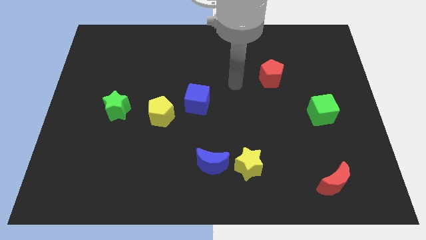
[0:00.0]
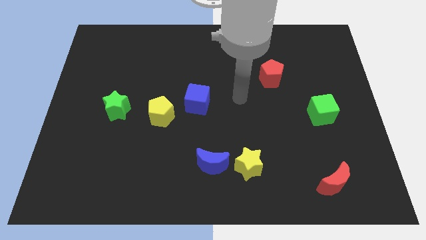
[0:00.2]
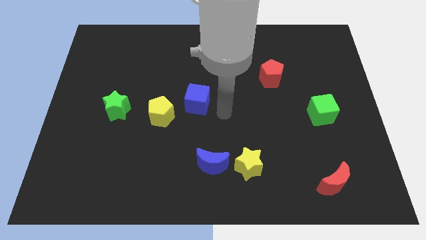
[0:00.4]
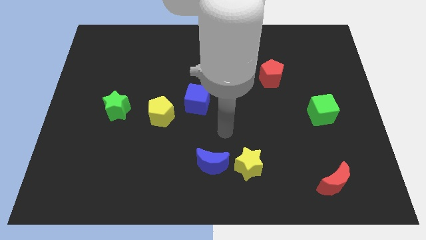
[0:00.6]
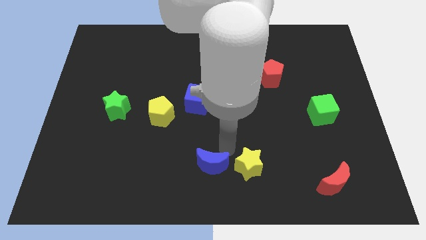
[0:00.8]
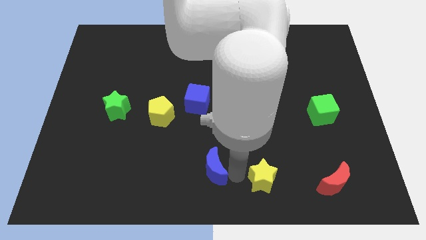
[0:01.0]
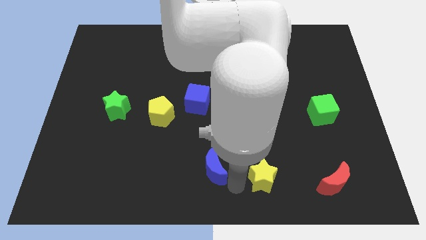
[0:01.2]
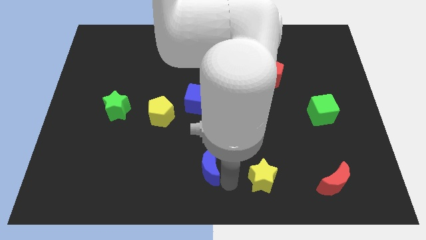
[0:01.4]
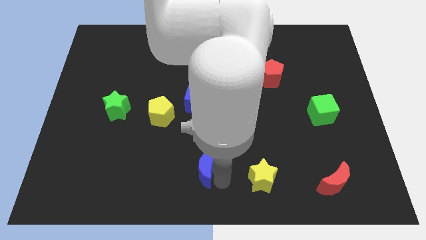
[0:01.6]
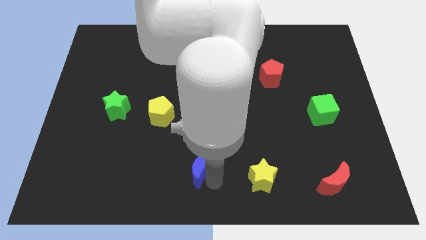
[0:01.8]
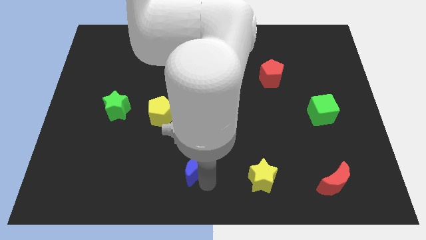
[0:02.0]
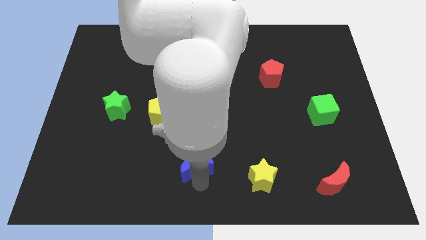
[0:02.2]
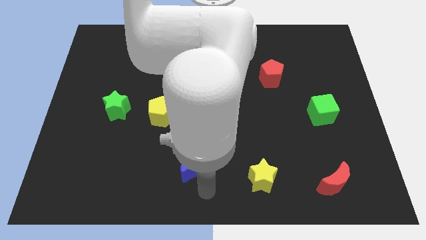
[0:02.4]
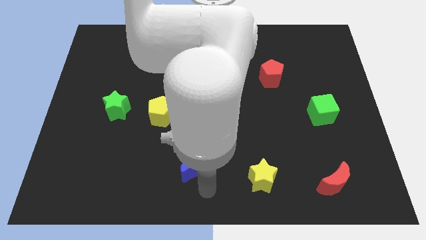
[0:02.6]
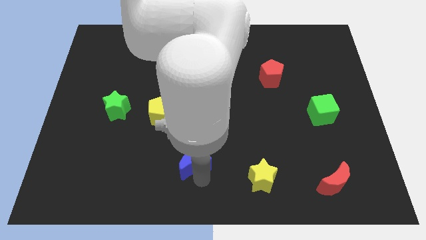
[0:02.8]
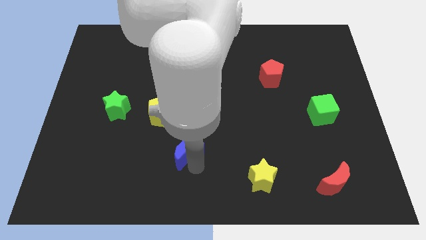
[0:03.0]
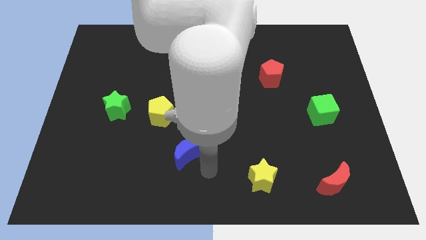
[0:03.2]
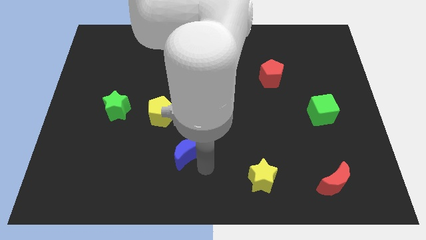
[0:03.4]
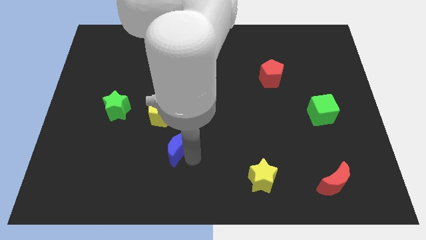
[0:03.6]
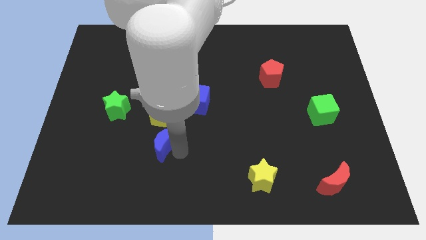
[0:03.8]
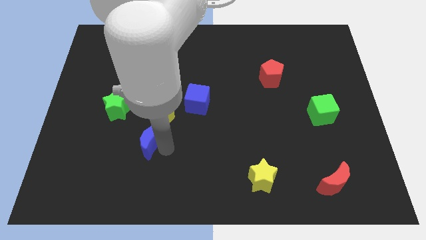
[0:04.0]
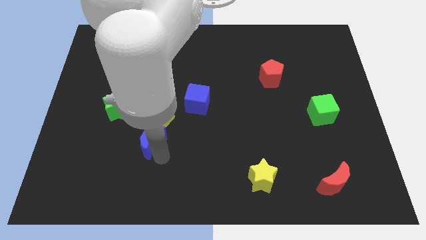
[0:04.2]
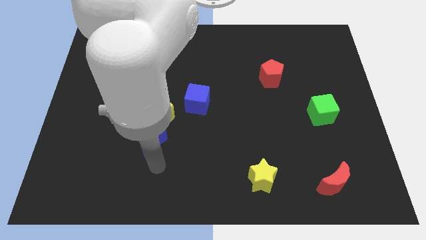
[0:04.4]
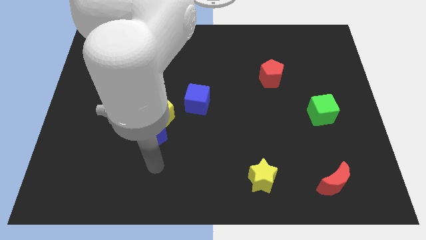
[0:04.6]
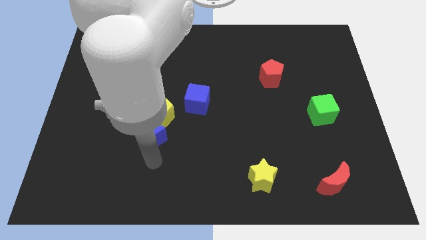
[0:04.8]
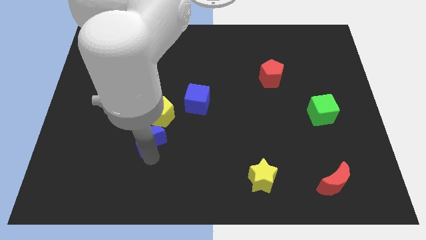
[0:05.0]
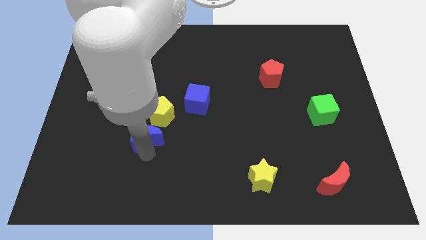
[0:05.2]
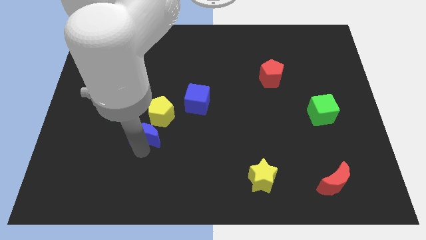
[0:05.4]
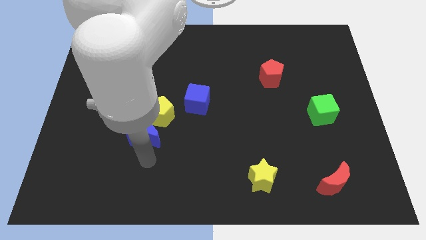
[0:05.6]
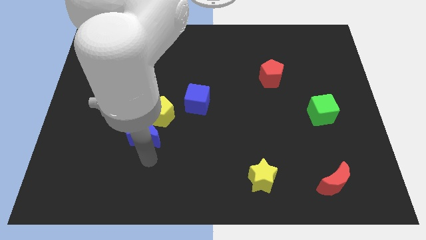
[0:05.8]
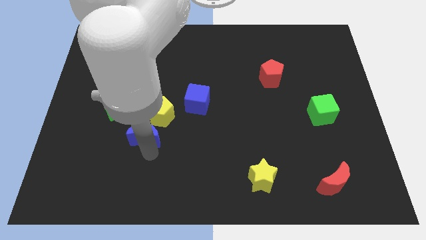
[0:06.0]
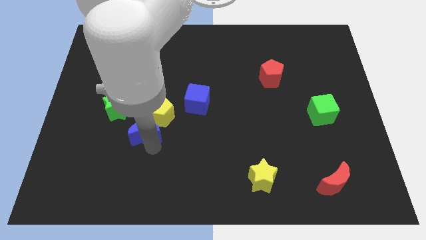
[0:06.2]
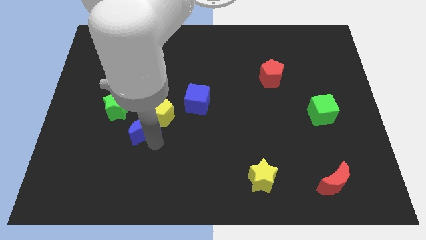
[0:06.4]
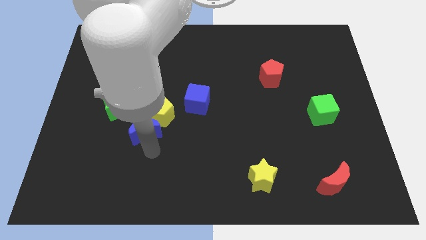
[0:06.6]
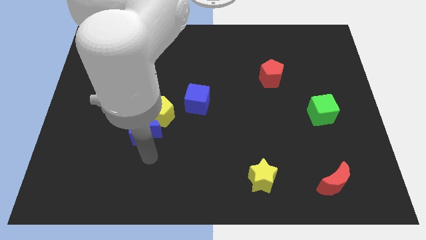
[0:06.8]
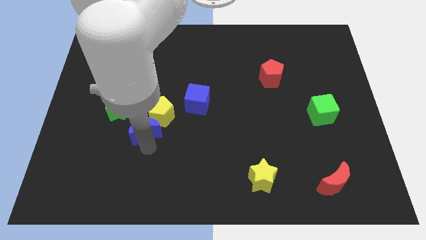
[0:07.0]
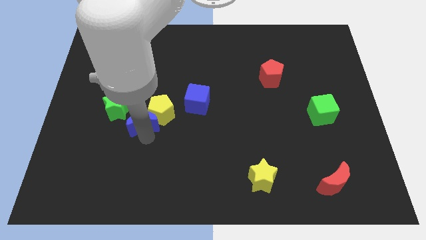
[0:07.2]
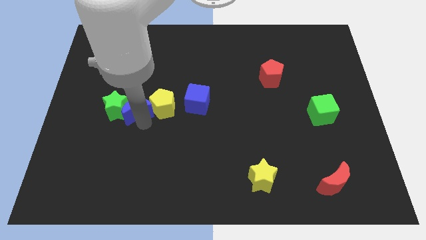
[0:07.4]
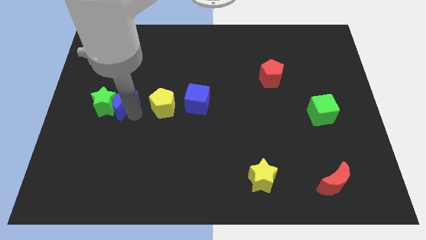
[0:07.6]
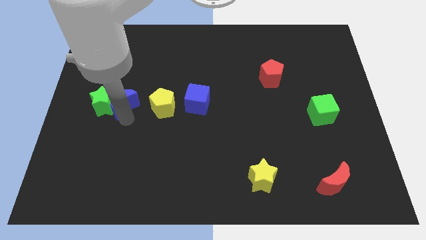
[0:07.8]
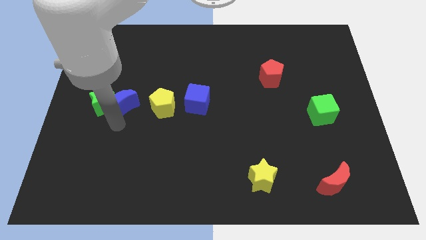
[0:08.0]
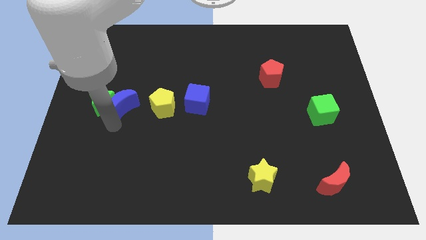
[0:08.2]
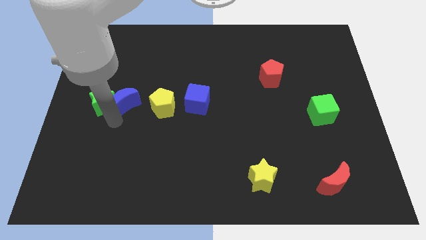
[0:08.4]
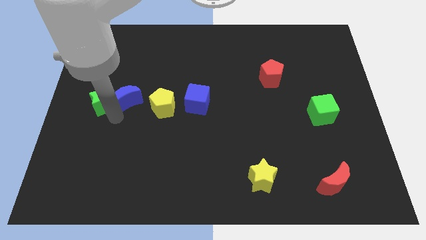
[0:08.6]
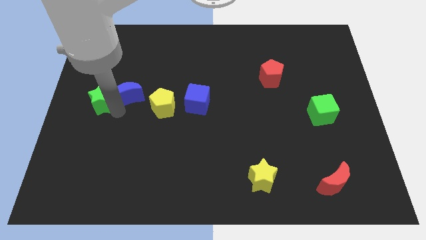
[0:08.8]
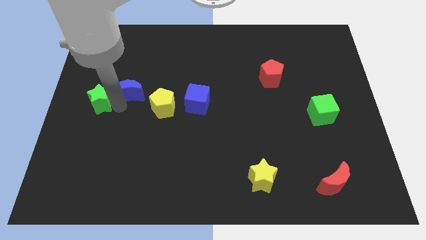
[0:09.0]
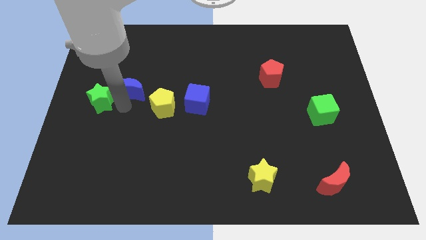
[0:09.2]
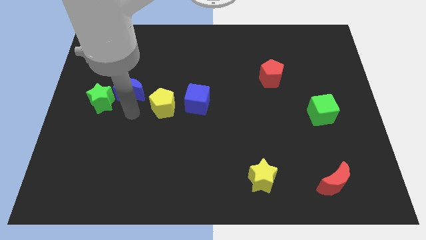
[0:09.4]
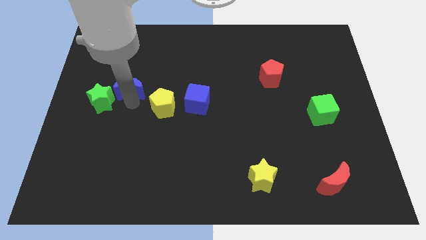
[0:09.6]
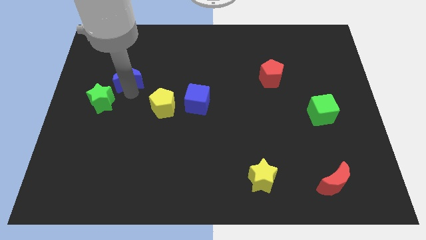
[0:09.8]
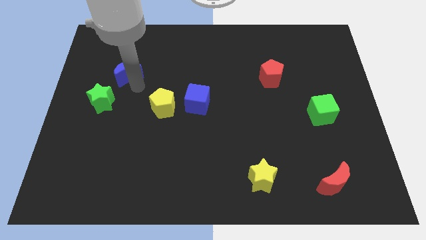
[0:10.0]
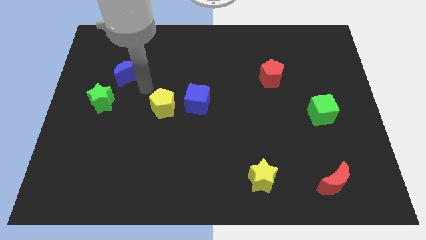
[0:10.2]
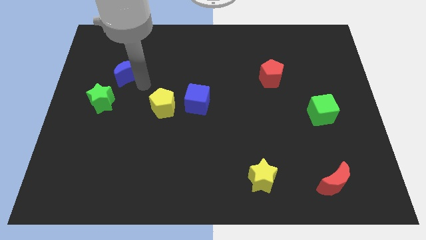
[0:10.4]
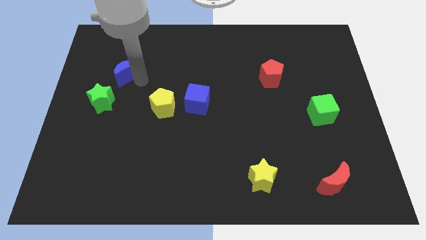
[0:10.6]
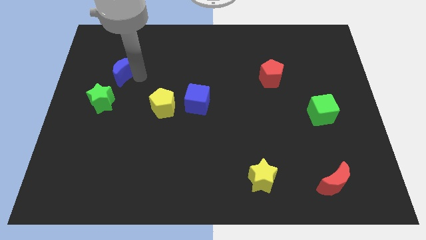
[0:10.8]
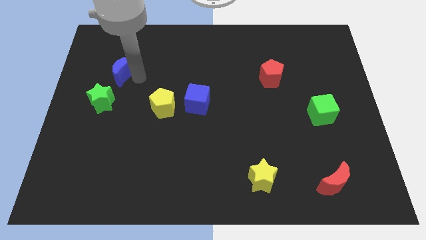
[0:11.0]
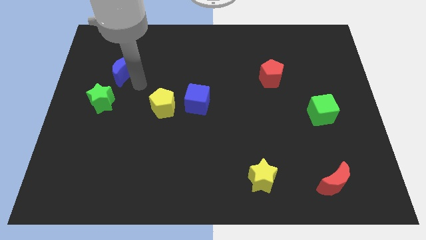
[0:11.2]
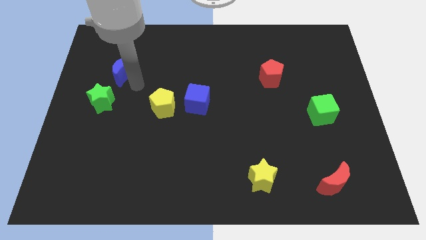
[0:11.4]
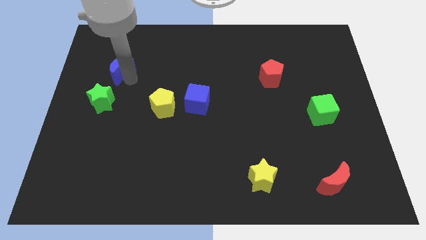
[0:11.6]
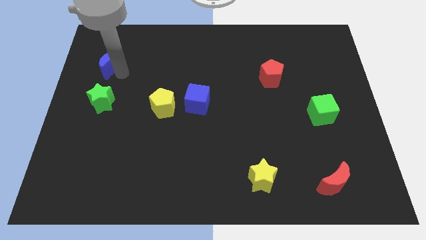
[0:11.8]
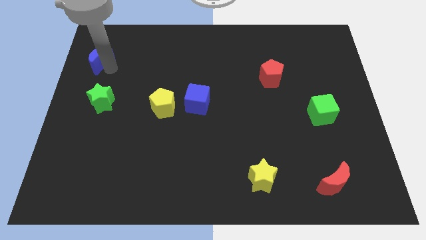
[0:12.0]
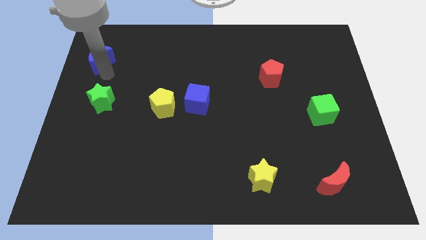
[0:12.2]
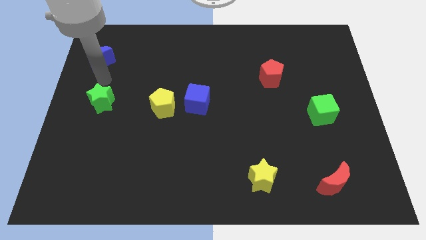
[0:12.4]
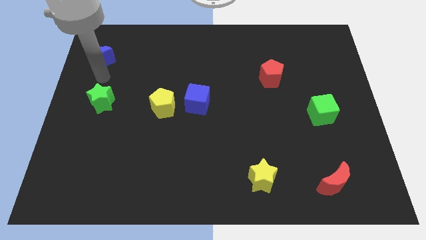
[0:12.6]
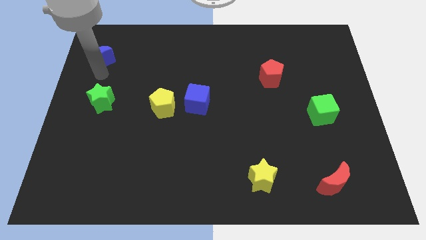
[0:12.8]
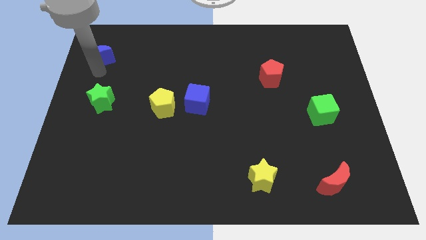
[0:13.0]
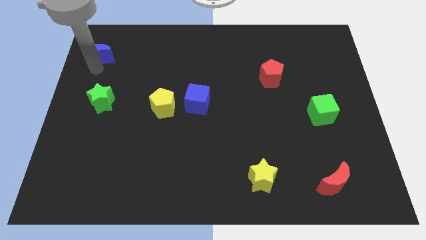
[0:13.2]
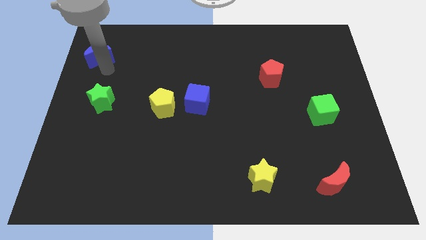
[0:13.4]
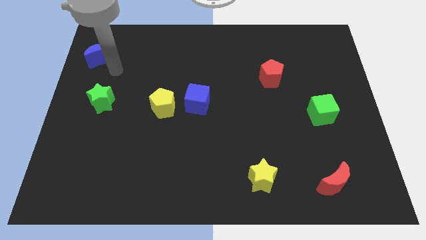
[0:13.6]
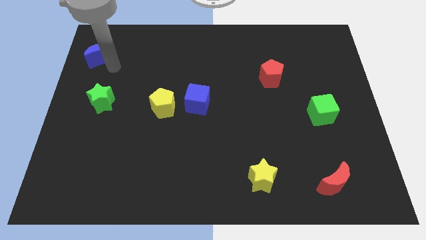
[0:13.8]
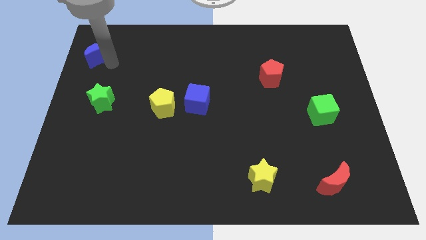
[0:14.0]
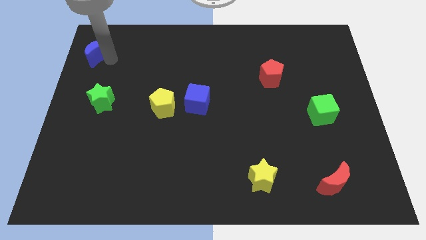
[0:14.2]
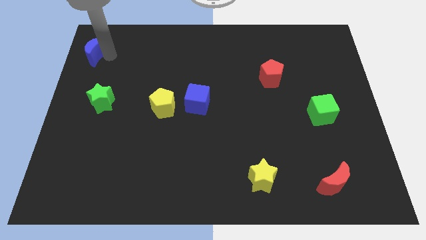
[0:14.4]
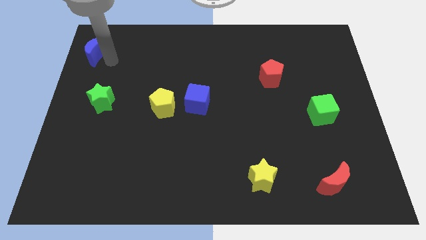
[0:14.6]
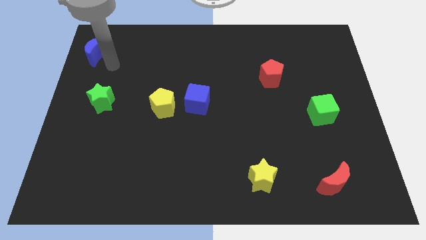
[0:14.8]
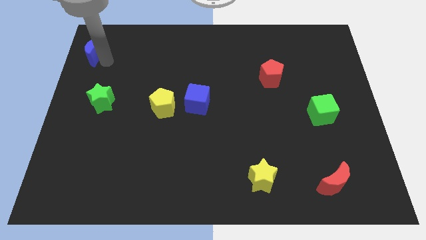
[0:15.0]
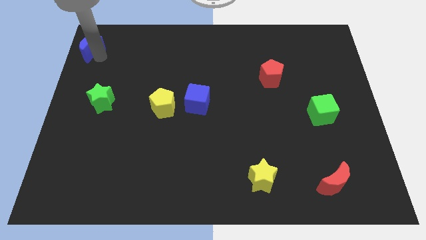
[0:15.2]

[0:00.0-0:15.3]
move the blue moon to the upper left corner
